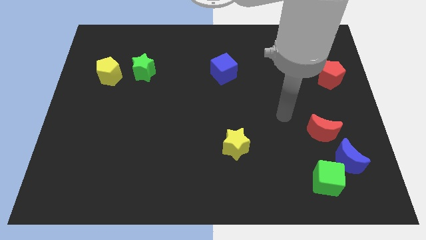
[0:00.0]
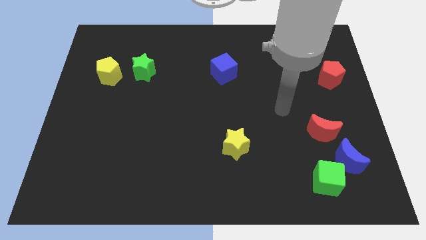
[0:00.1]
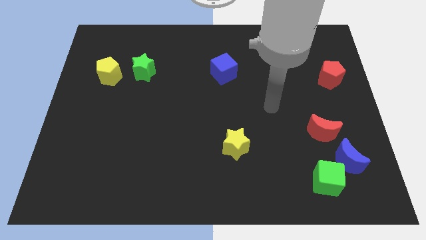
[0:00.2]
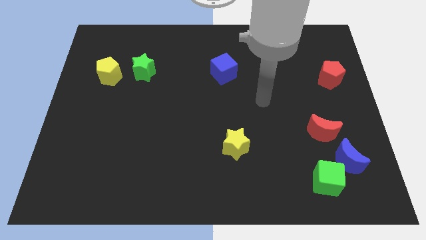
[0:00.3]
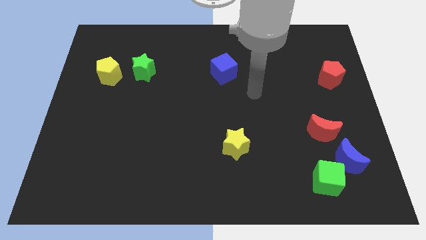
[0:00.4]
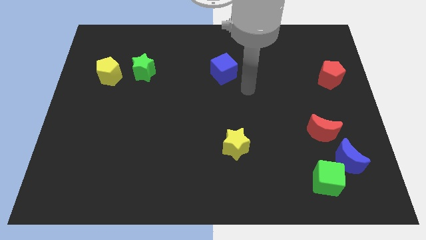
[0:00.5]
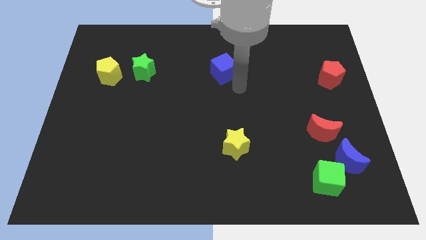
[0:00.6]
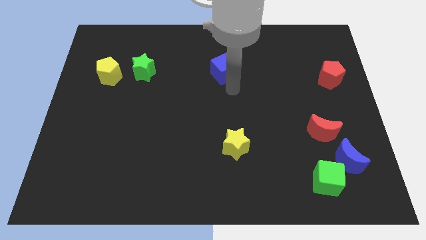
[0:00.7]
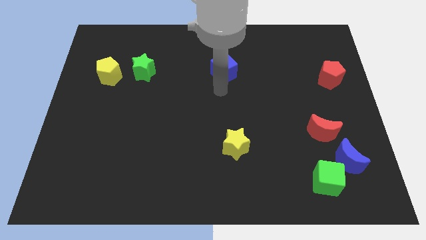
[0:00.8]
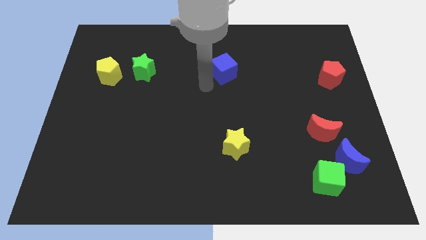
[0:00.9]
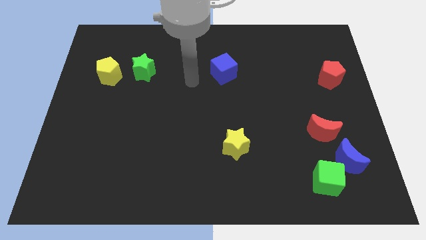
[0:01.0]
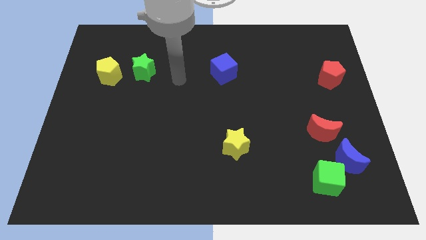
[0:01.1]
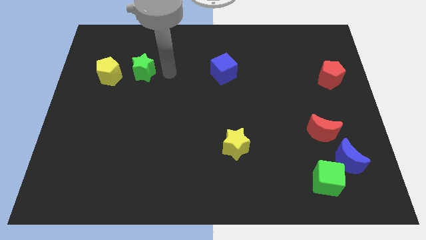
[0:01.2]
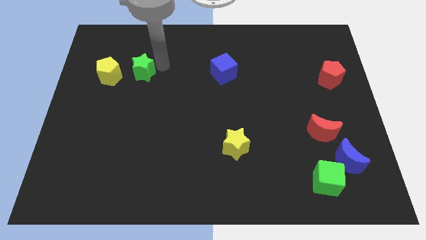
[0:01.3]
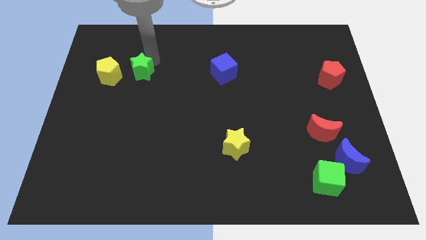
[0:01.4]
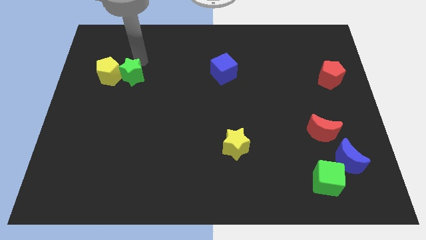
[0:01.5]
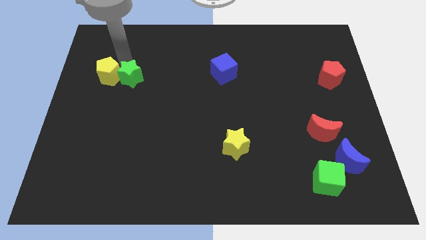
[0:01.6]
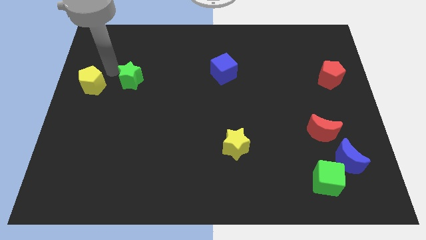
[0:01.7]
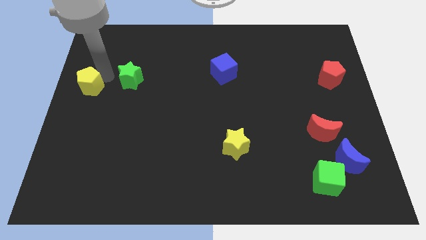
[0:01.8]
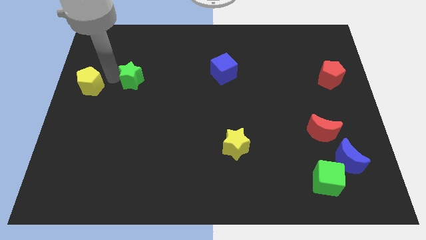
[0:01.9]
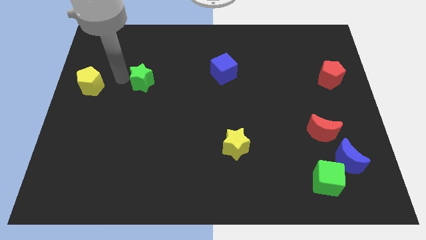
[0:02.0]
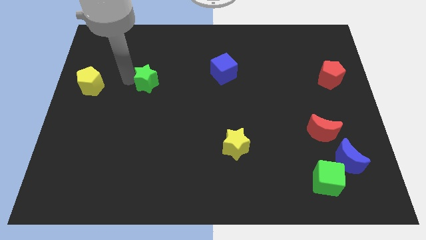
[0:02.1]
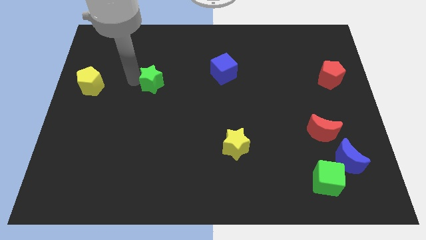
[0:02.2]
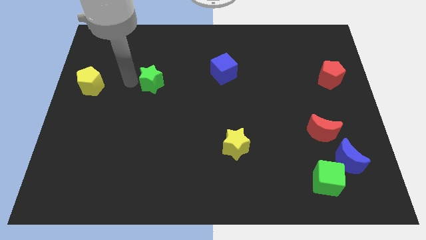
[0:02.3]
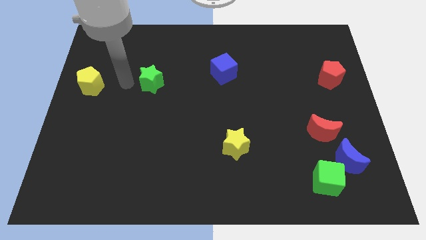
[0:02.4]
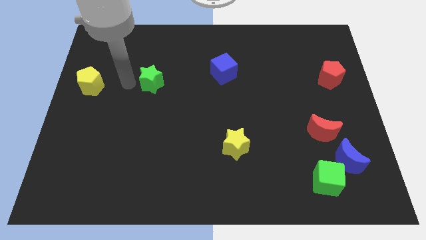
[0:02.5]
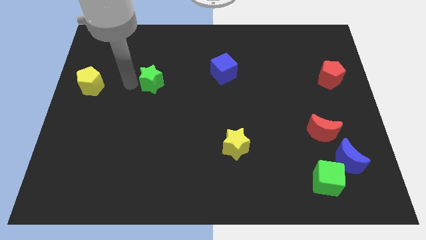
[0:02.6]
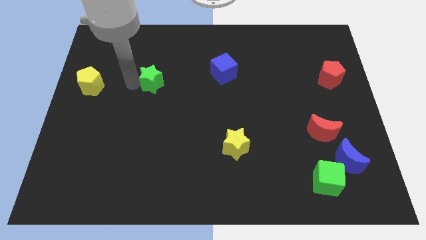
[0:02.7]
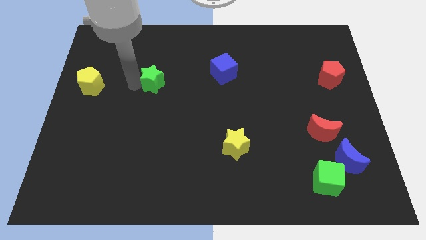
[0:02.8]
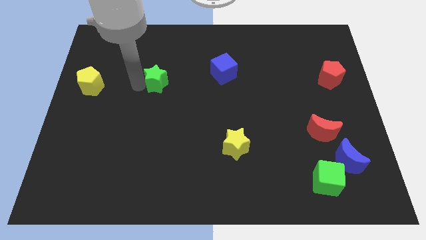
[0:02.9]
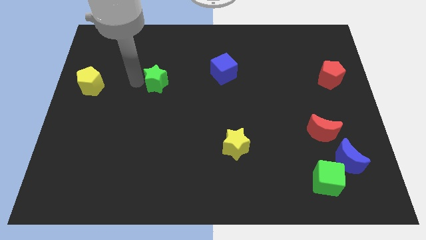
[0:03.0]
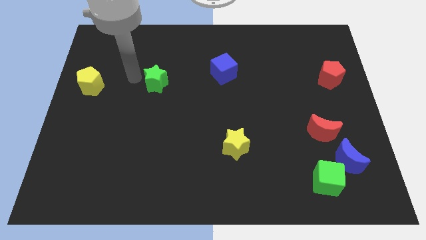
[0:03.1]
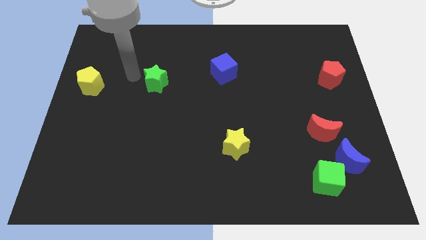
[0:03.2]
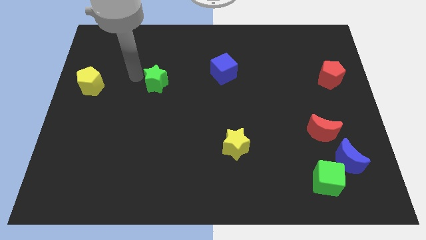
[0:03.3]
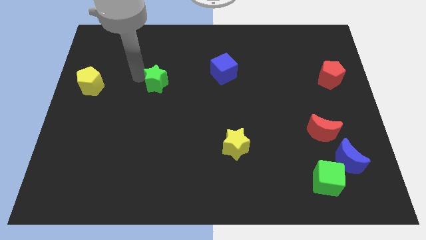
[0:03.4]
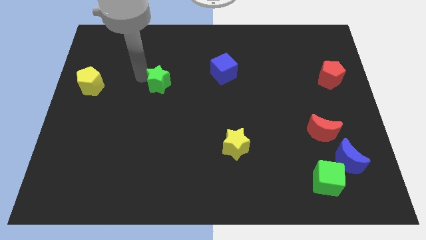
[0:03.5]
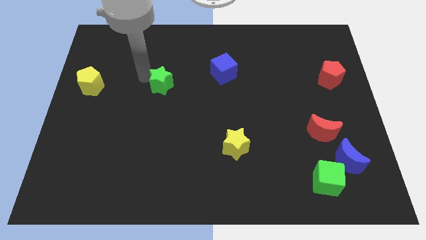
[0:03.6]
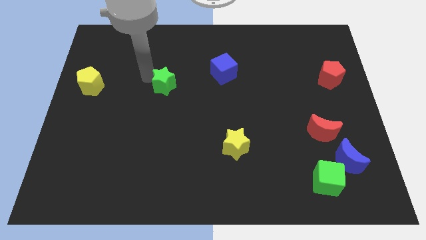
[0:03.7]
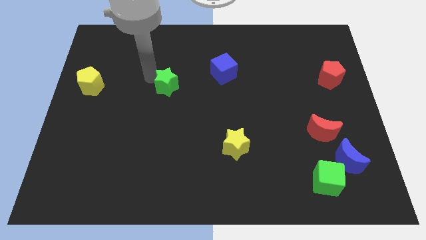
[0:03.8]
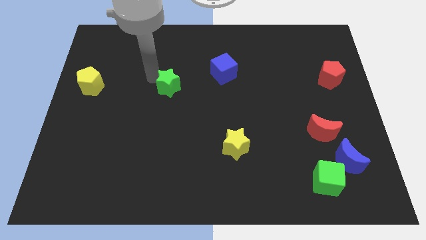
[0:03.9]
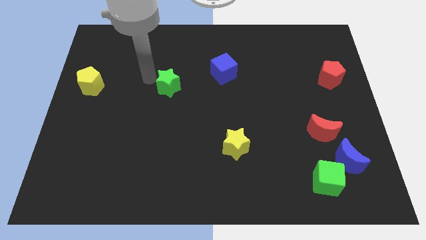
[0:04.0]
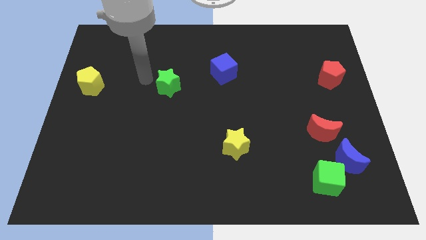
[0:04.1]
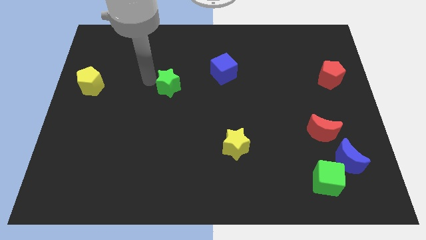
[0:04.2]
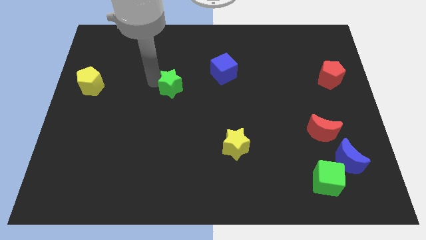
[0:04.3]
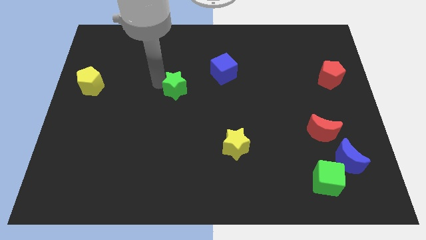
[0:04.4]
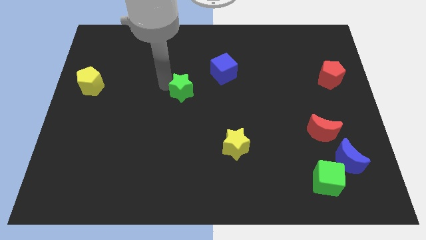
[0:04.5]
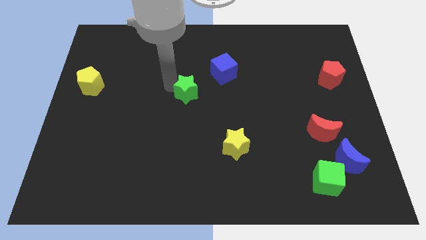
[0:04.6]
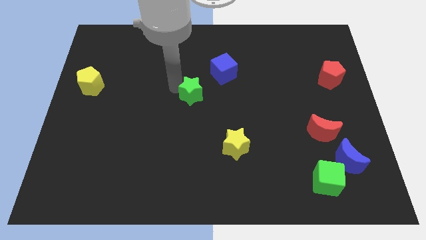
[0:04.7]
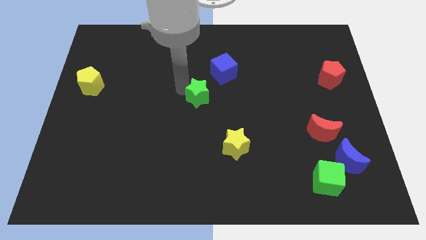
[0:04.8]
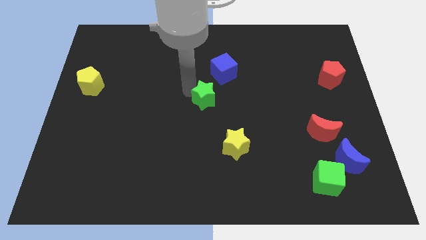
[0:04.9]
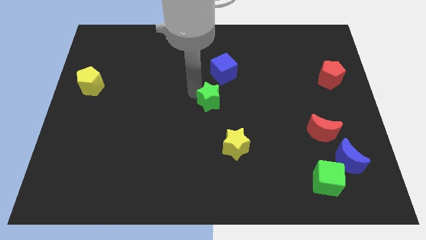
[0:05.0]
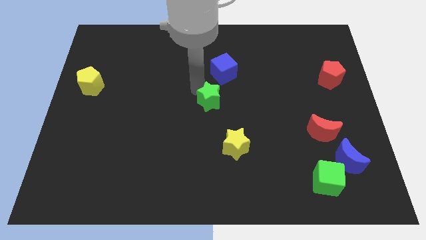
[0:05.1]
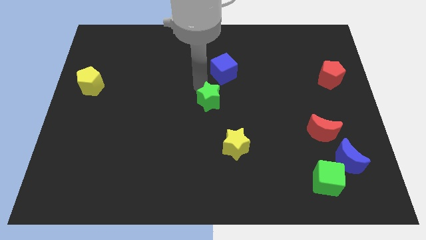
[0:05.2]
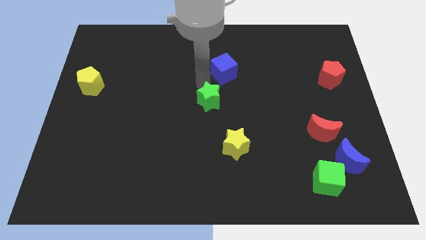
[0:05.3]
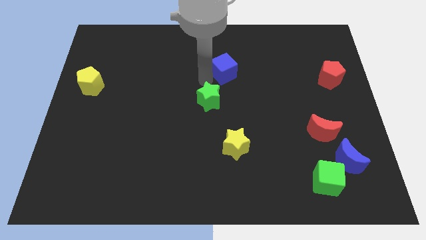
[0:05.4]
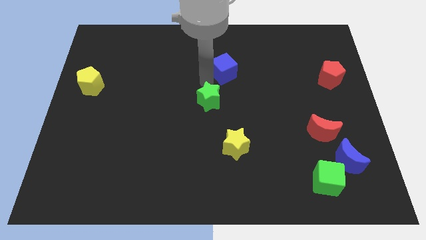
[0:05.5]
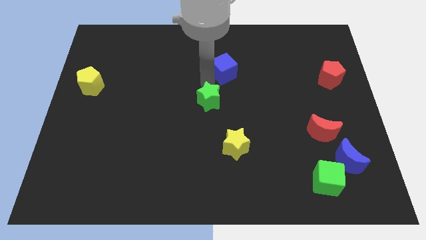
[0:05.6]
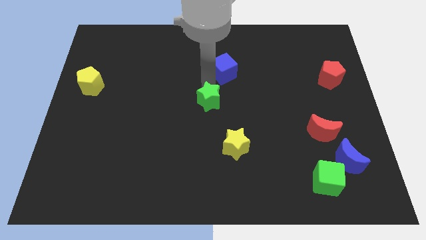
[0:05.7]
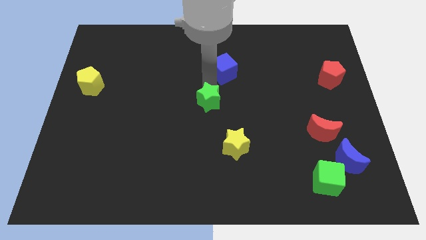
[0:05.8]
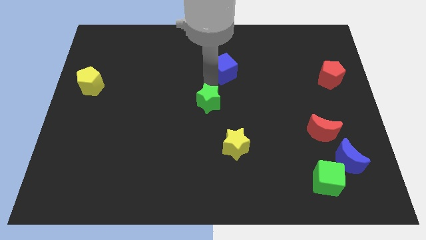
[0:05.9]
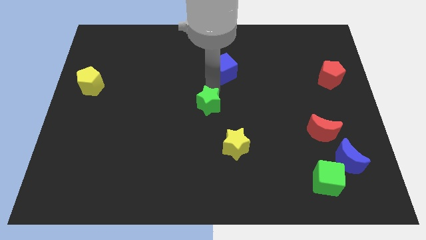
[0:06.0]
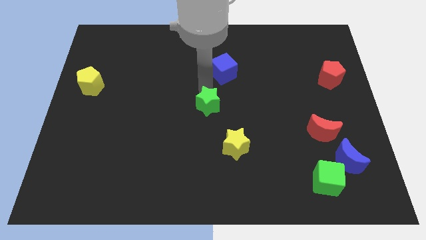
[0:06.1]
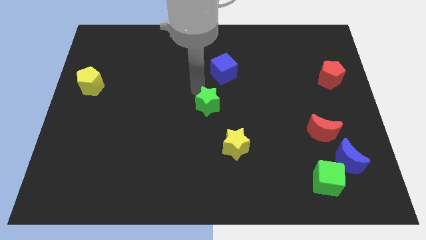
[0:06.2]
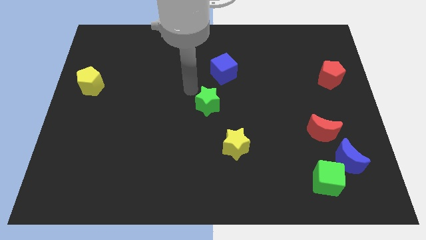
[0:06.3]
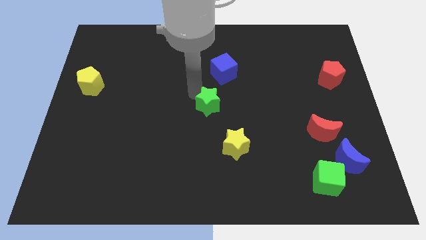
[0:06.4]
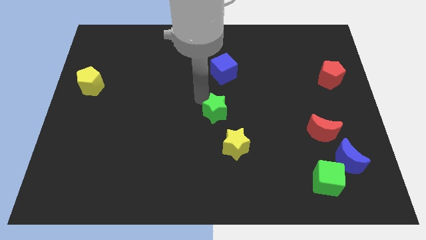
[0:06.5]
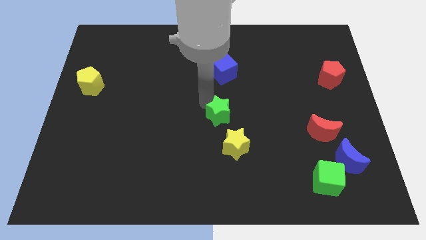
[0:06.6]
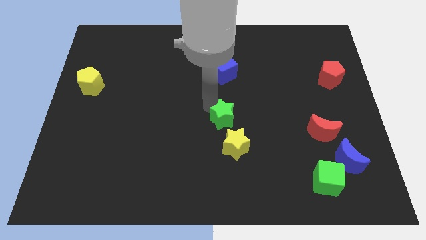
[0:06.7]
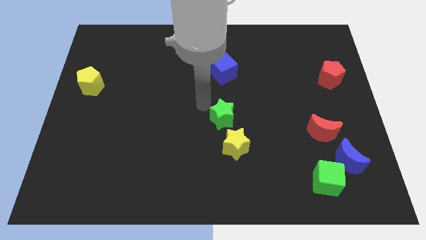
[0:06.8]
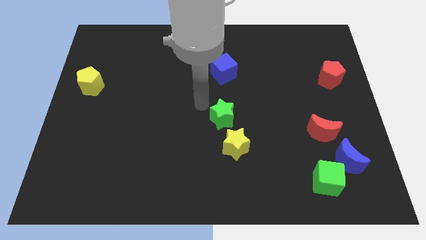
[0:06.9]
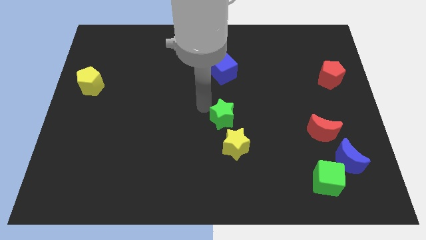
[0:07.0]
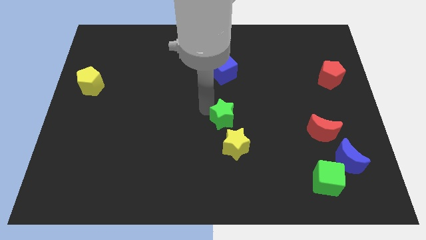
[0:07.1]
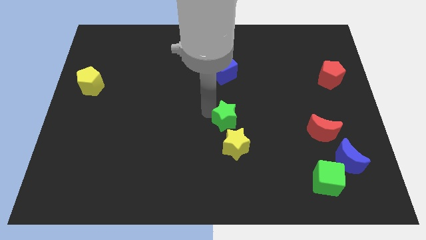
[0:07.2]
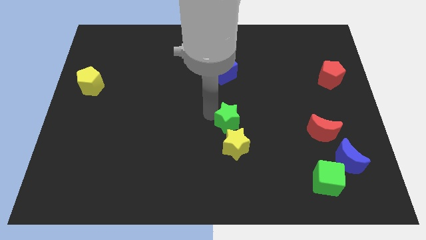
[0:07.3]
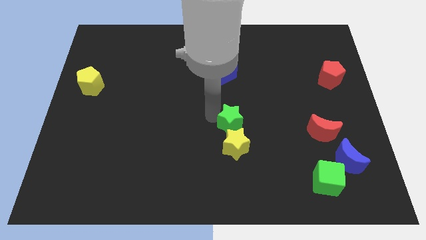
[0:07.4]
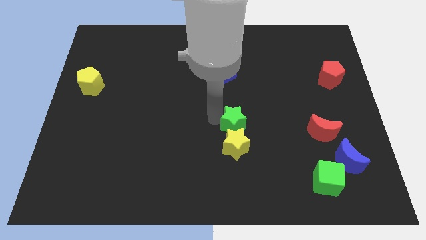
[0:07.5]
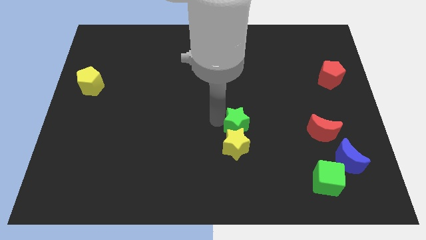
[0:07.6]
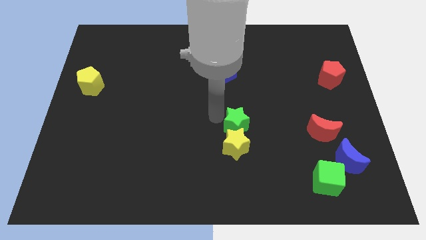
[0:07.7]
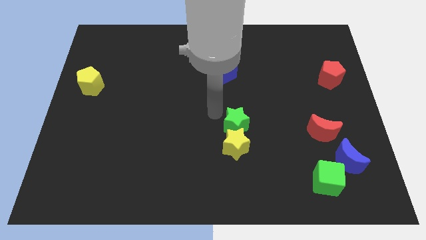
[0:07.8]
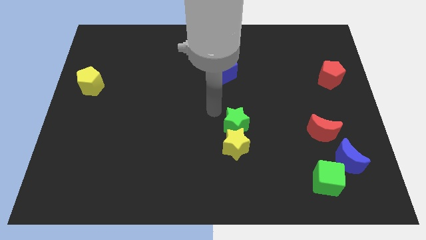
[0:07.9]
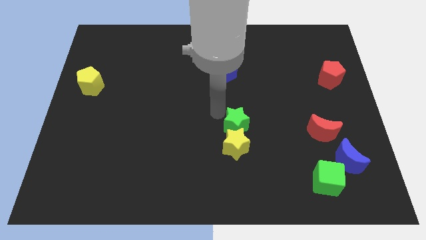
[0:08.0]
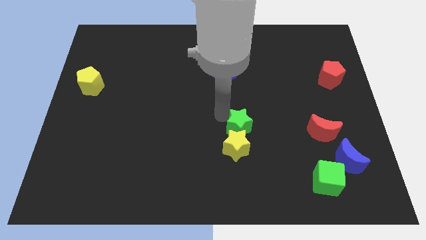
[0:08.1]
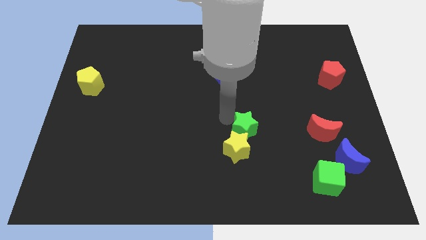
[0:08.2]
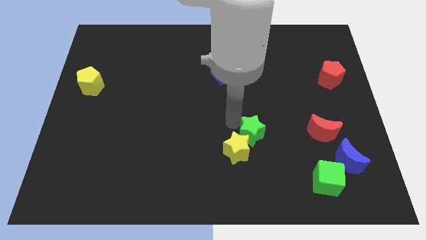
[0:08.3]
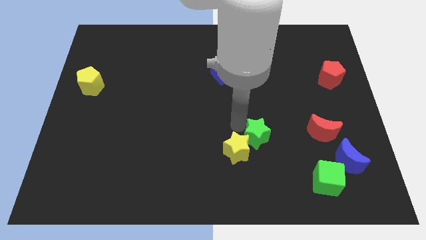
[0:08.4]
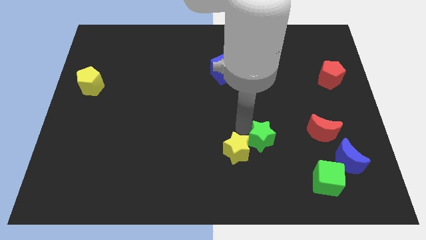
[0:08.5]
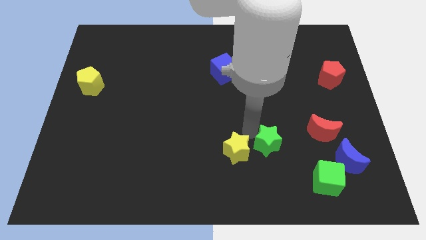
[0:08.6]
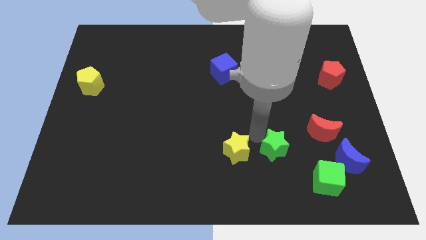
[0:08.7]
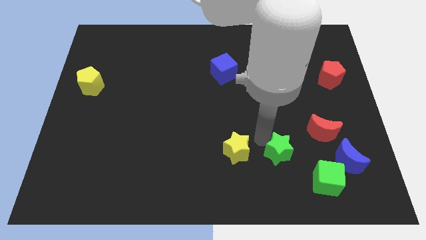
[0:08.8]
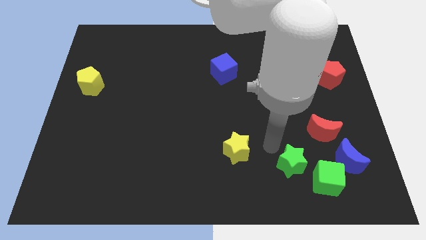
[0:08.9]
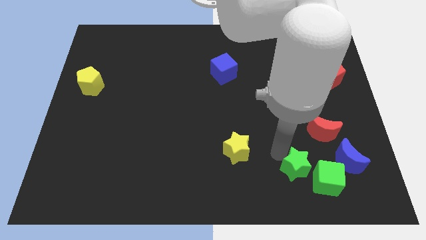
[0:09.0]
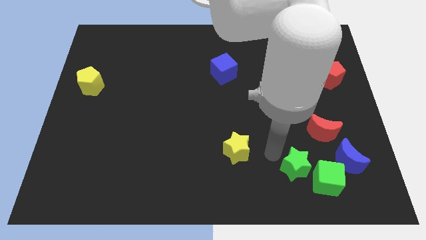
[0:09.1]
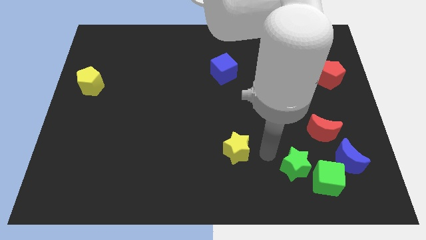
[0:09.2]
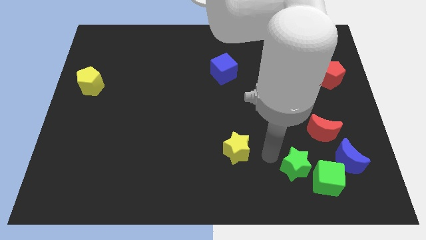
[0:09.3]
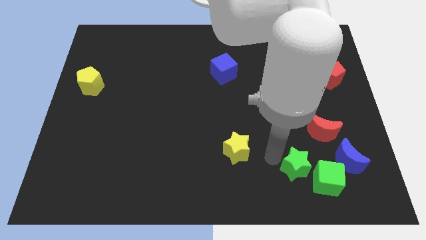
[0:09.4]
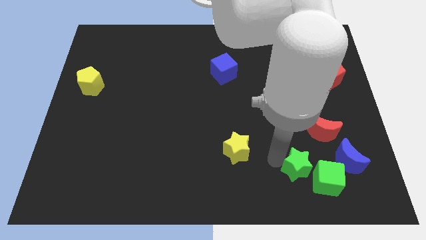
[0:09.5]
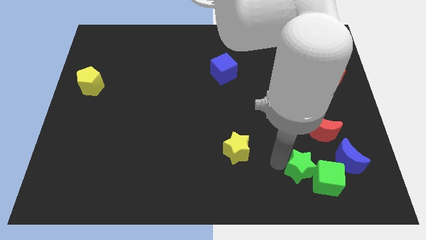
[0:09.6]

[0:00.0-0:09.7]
push the green star close to the green cube
